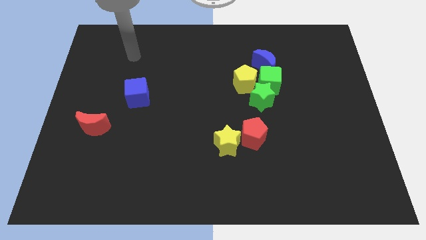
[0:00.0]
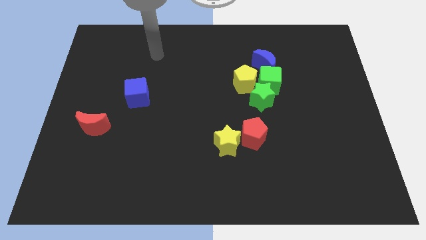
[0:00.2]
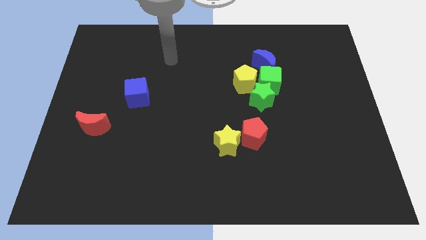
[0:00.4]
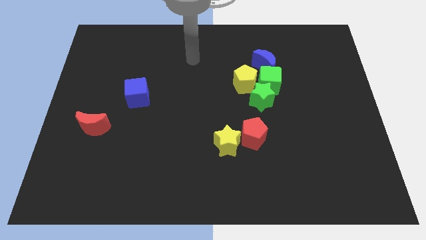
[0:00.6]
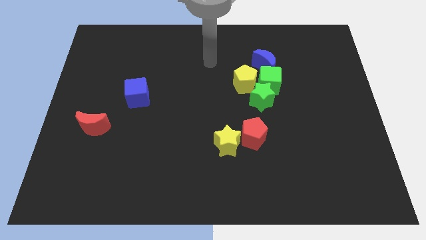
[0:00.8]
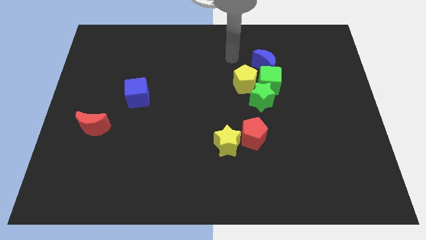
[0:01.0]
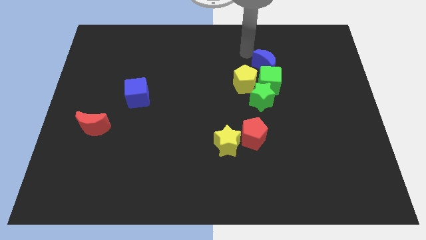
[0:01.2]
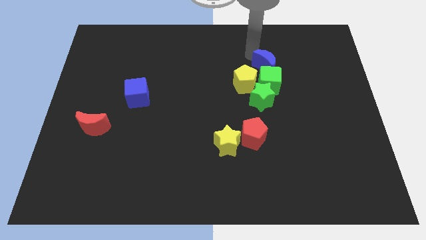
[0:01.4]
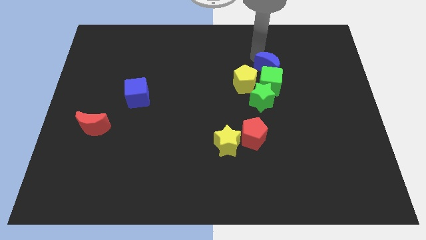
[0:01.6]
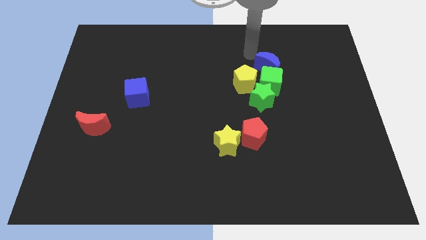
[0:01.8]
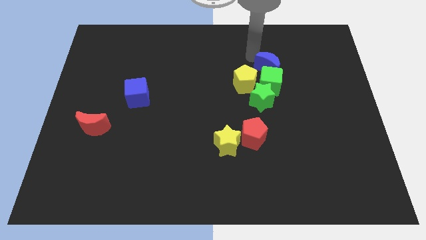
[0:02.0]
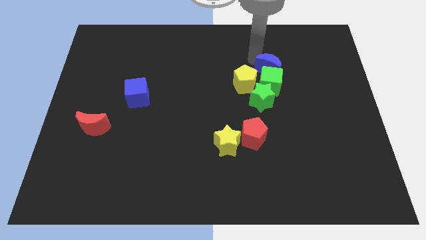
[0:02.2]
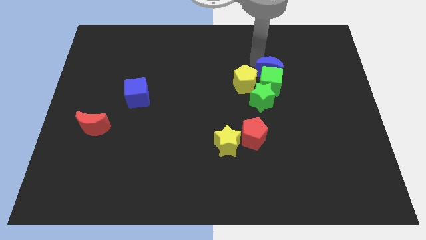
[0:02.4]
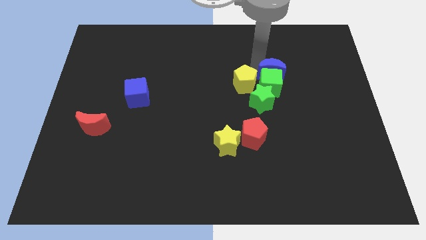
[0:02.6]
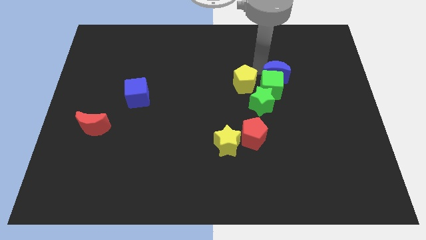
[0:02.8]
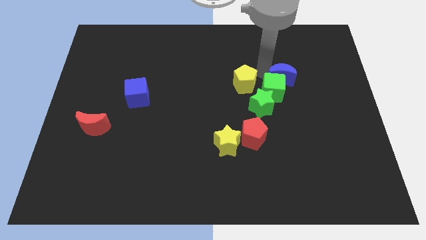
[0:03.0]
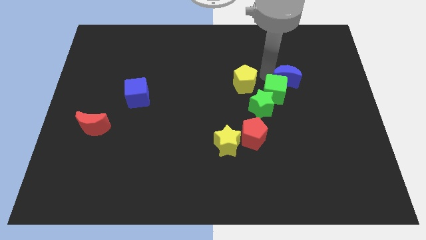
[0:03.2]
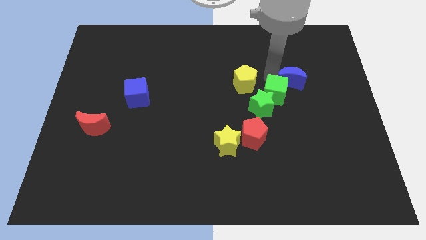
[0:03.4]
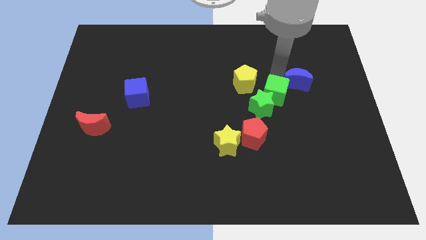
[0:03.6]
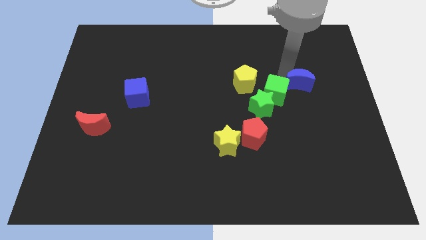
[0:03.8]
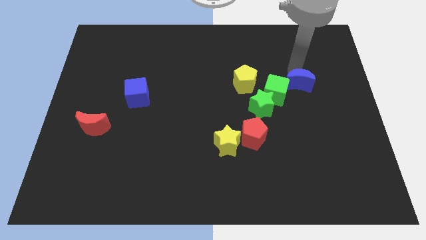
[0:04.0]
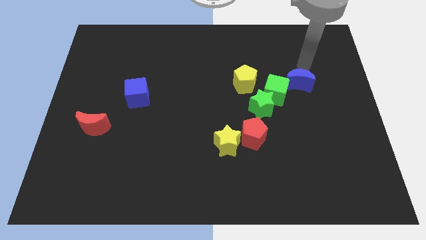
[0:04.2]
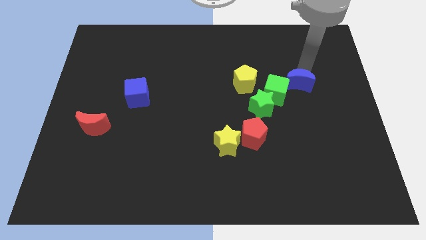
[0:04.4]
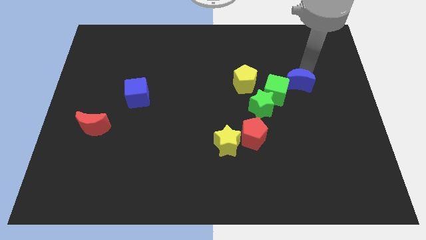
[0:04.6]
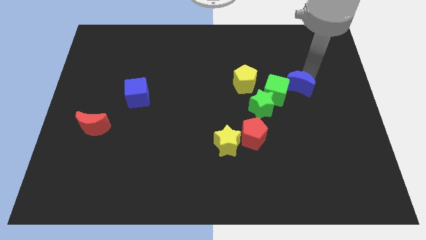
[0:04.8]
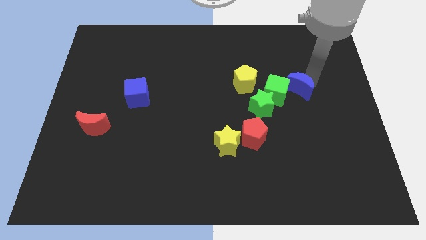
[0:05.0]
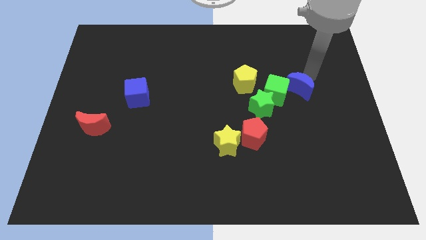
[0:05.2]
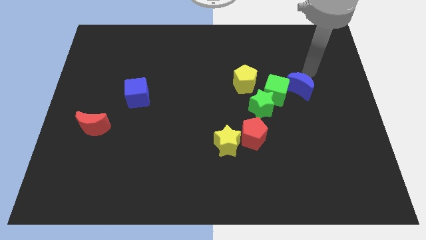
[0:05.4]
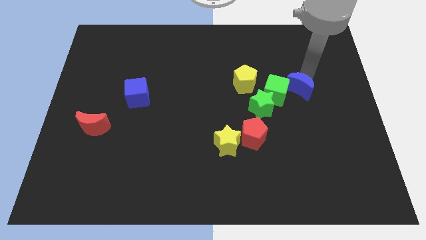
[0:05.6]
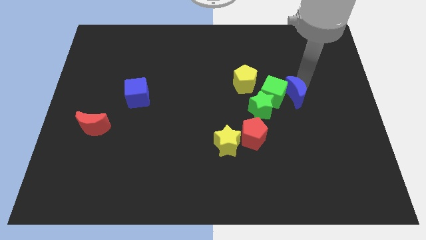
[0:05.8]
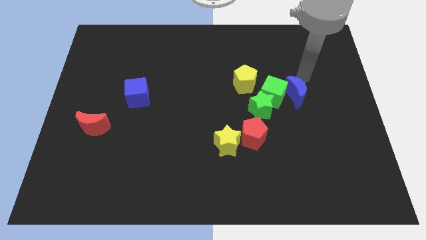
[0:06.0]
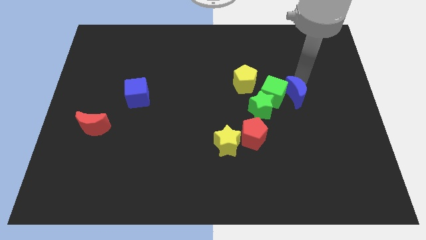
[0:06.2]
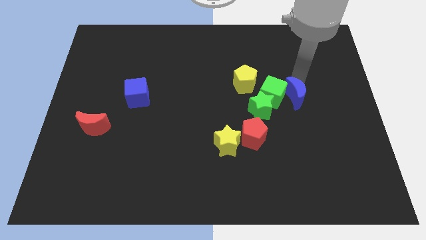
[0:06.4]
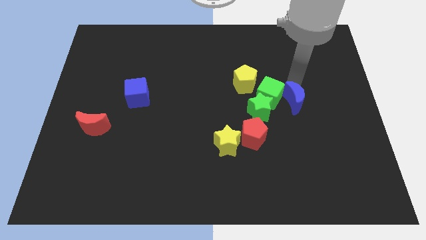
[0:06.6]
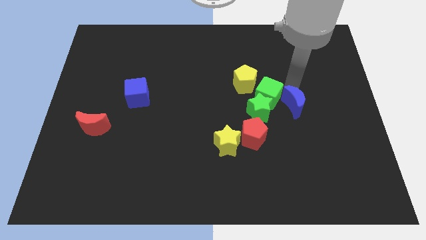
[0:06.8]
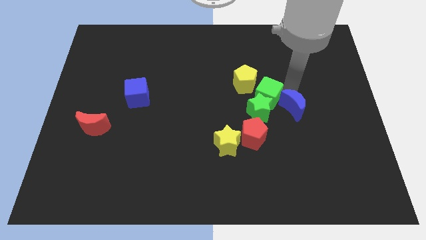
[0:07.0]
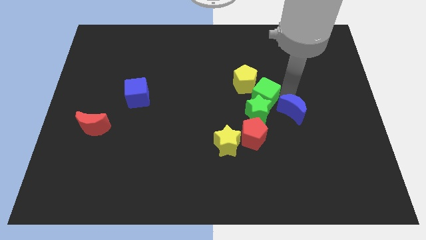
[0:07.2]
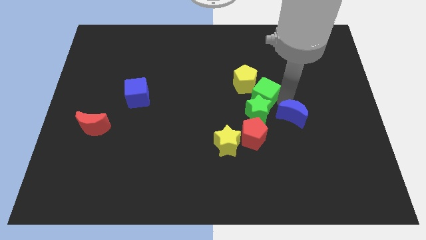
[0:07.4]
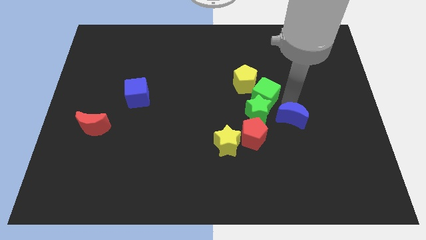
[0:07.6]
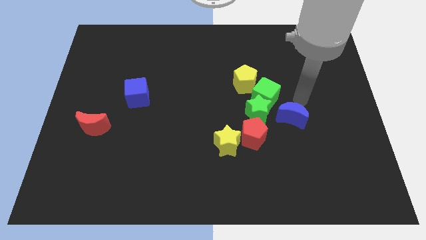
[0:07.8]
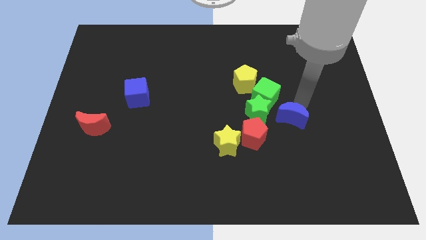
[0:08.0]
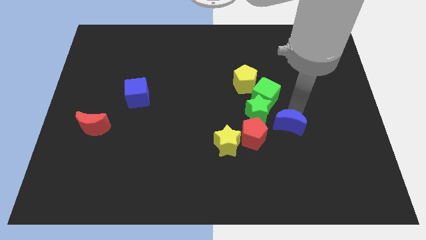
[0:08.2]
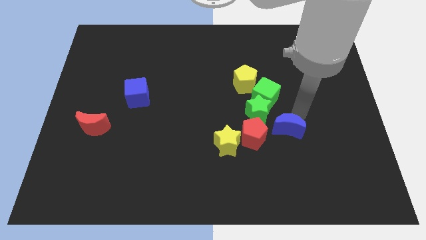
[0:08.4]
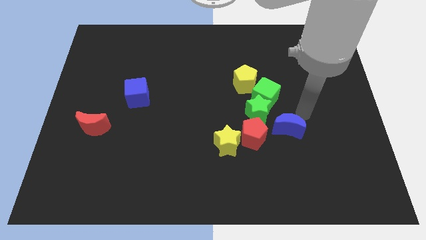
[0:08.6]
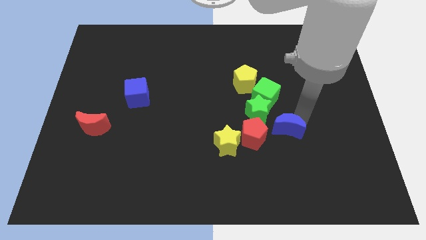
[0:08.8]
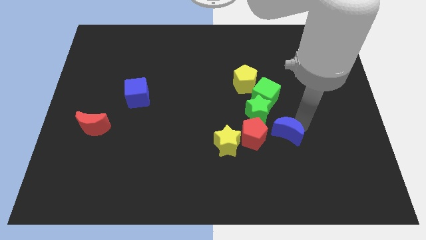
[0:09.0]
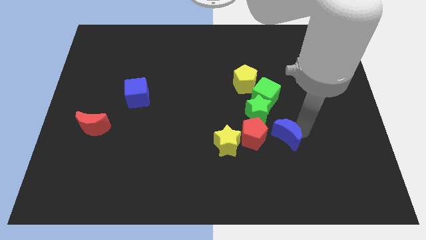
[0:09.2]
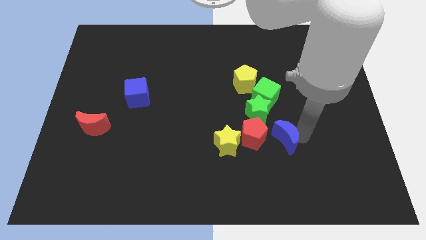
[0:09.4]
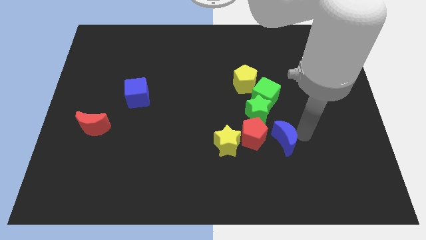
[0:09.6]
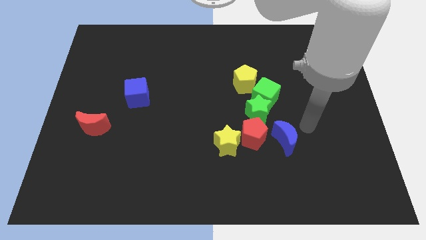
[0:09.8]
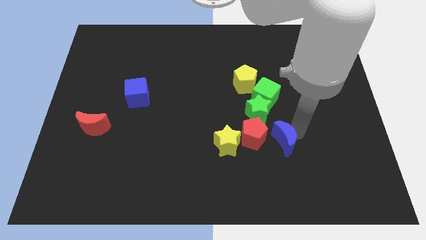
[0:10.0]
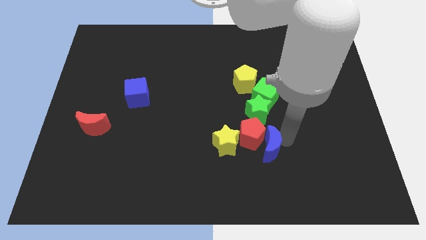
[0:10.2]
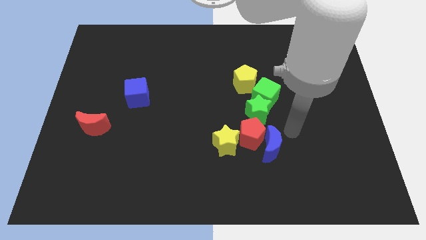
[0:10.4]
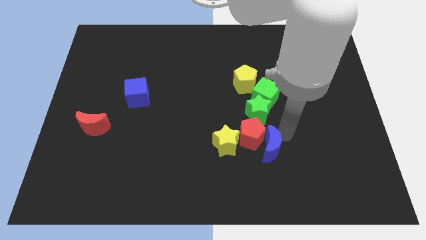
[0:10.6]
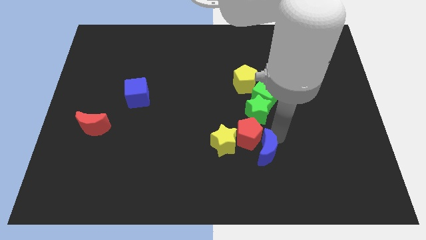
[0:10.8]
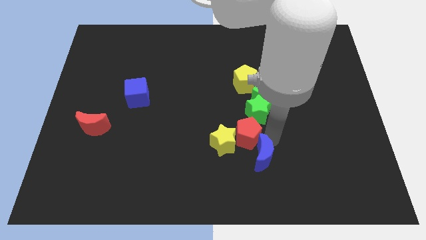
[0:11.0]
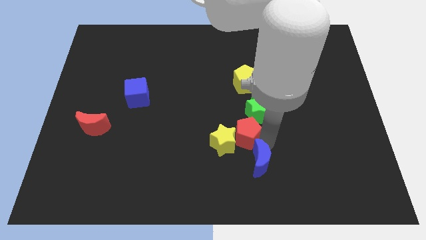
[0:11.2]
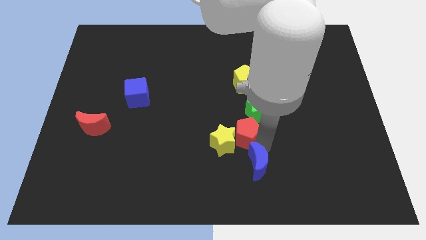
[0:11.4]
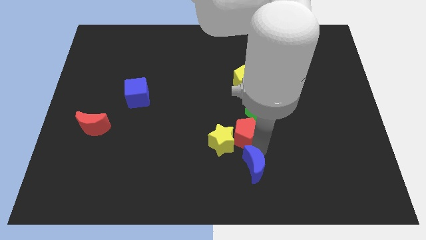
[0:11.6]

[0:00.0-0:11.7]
push the blue moon to the bottom side
